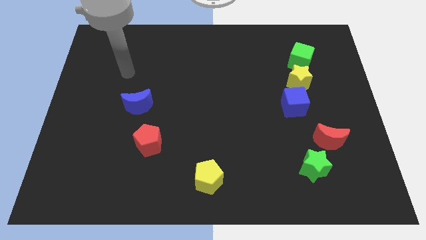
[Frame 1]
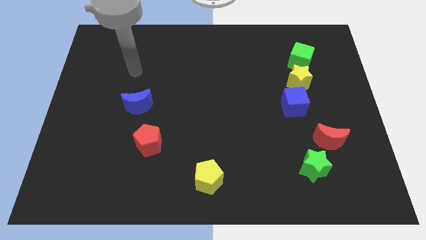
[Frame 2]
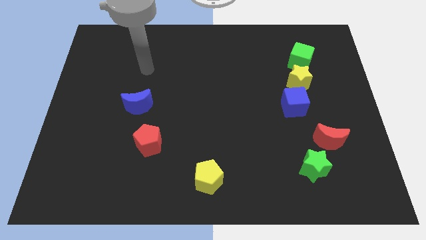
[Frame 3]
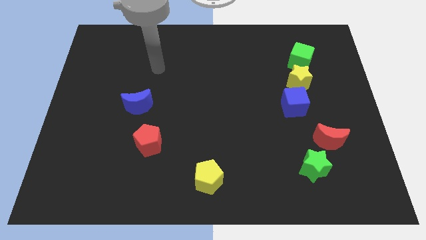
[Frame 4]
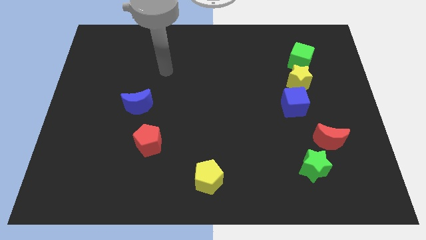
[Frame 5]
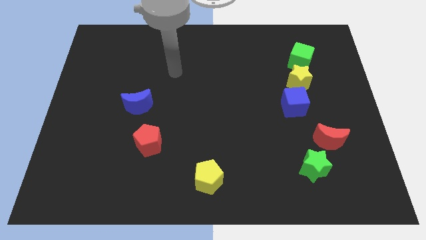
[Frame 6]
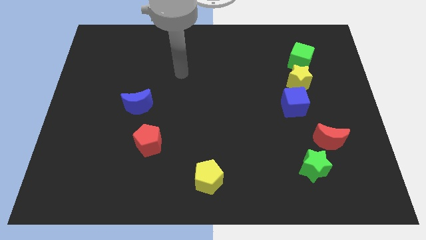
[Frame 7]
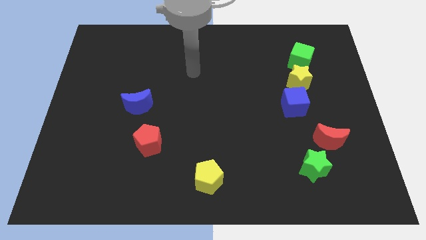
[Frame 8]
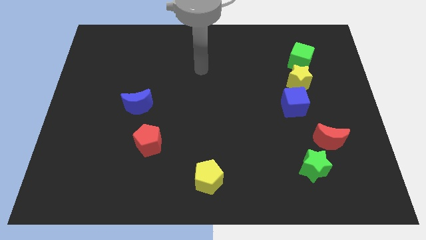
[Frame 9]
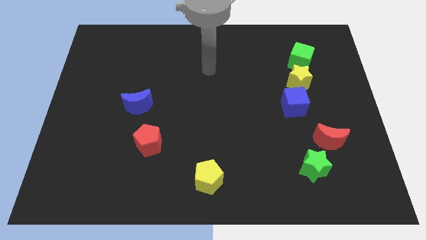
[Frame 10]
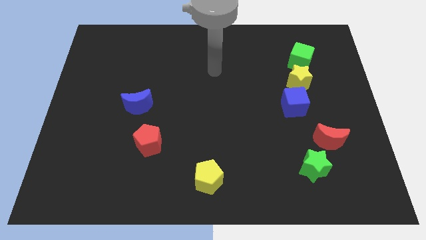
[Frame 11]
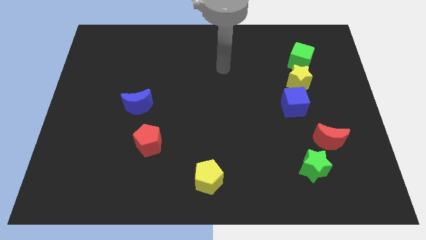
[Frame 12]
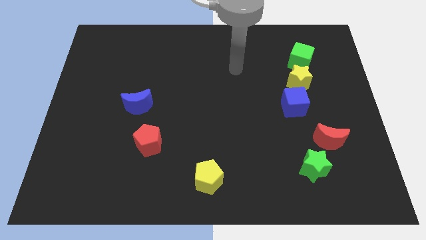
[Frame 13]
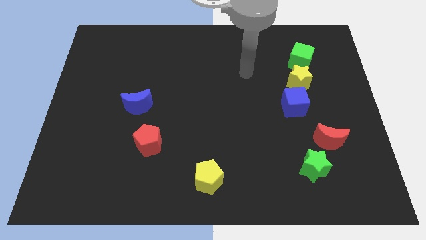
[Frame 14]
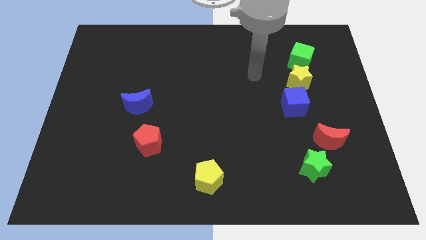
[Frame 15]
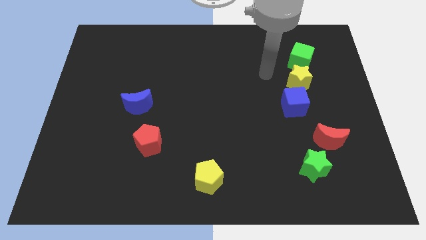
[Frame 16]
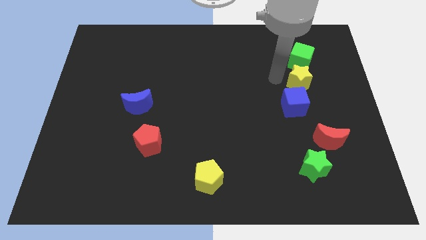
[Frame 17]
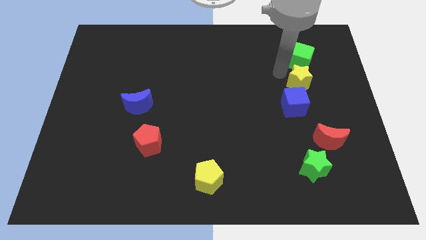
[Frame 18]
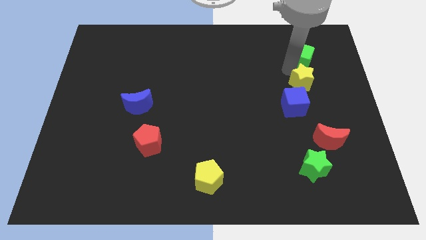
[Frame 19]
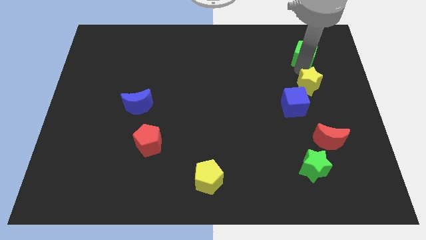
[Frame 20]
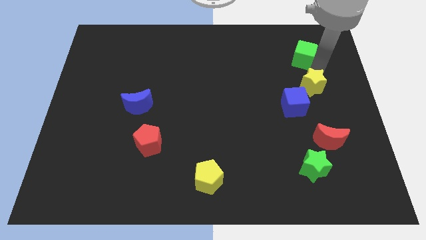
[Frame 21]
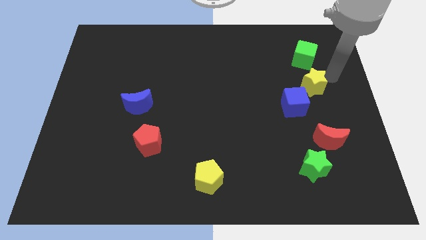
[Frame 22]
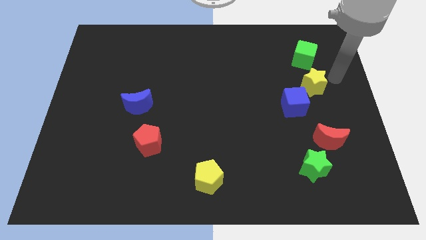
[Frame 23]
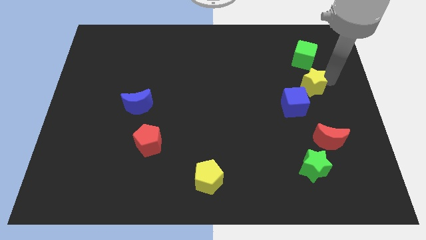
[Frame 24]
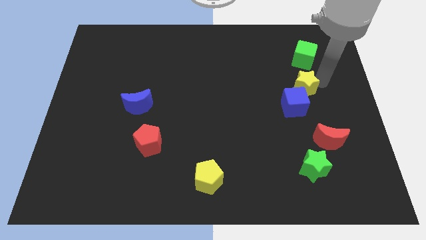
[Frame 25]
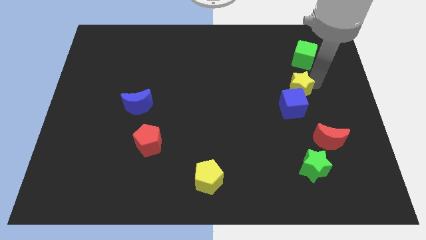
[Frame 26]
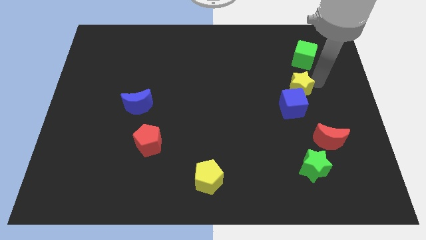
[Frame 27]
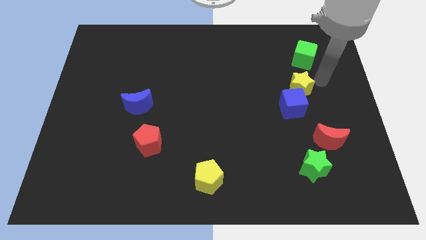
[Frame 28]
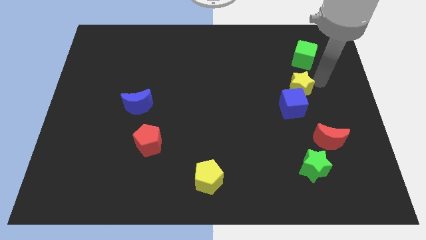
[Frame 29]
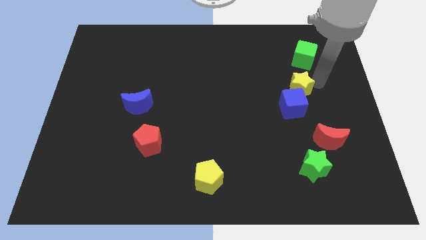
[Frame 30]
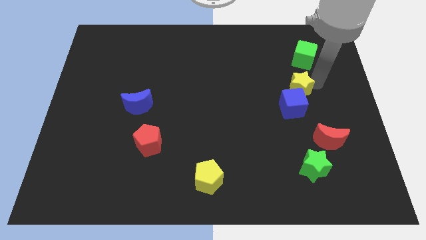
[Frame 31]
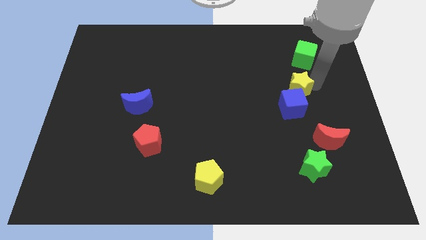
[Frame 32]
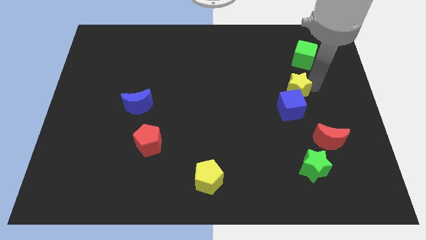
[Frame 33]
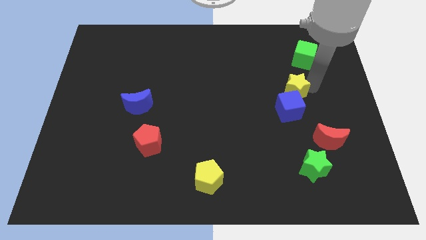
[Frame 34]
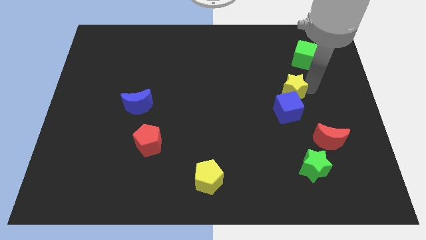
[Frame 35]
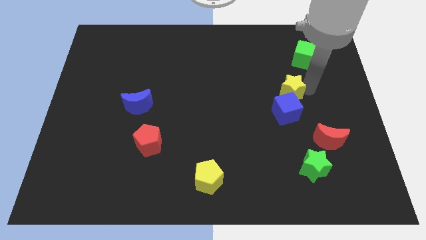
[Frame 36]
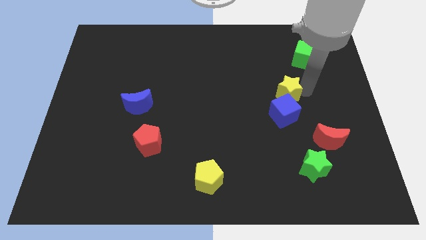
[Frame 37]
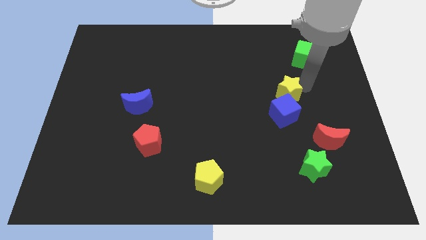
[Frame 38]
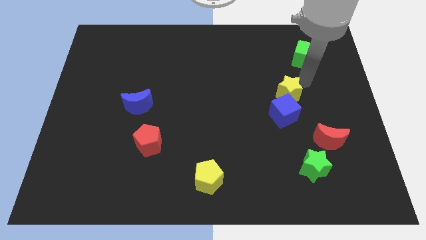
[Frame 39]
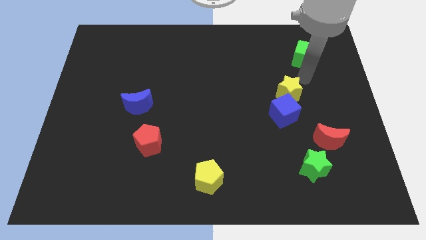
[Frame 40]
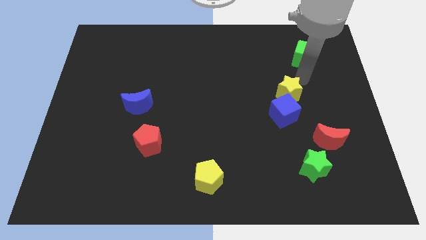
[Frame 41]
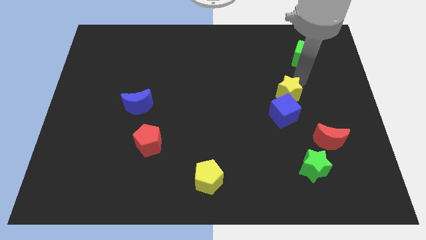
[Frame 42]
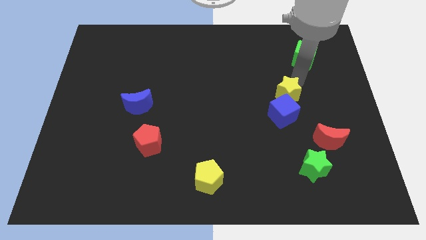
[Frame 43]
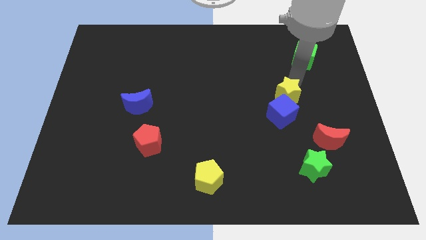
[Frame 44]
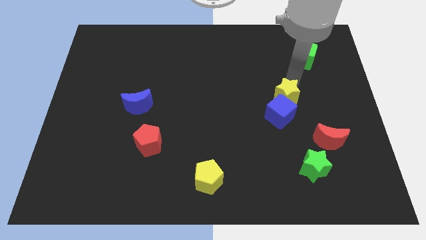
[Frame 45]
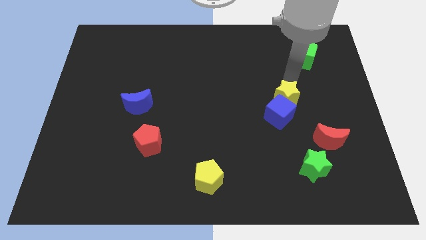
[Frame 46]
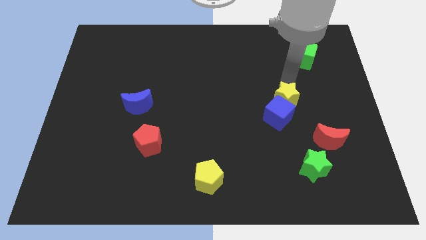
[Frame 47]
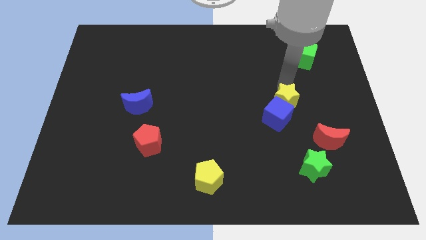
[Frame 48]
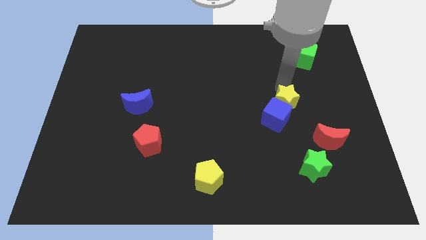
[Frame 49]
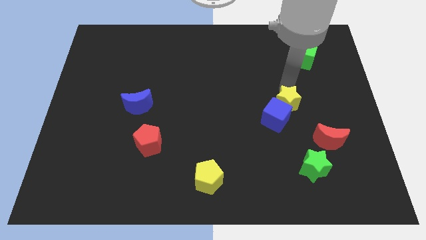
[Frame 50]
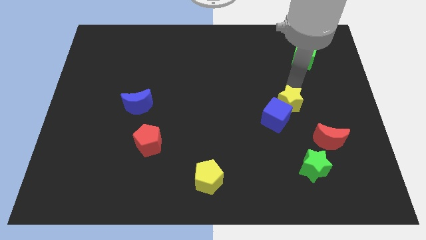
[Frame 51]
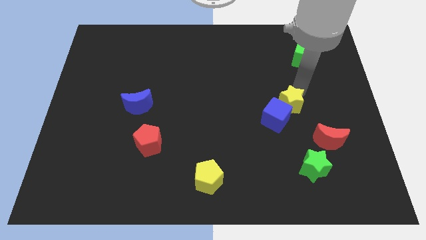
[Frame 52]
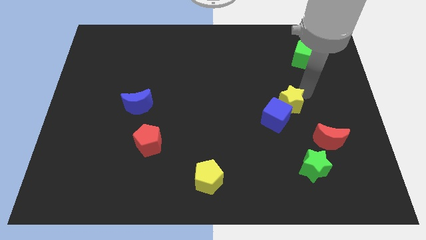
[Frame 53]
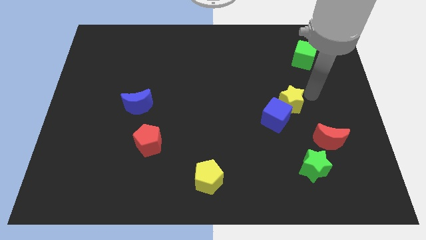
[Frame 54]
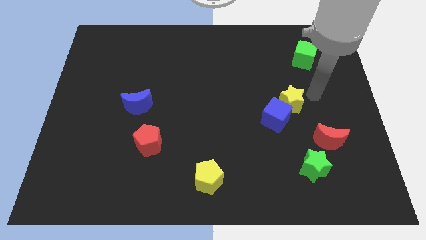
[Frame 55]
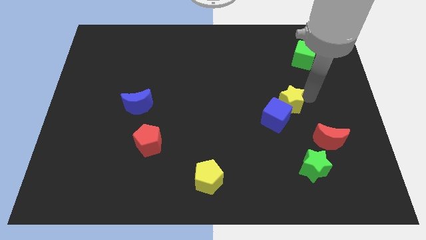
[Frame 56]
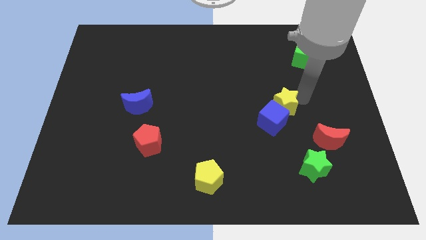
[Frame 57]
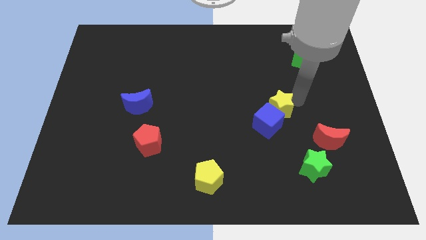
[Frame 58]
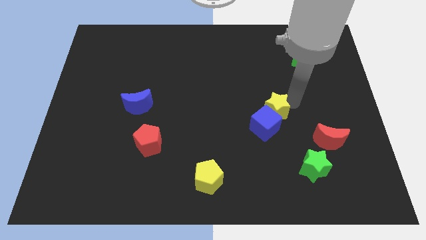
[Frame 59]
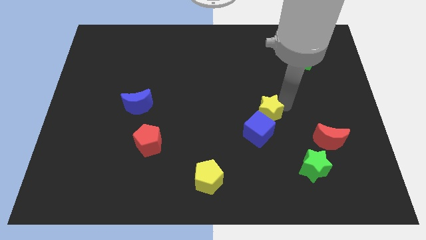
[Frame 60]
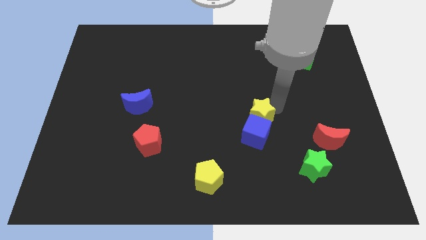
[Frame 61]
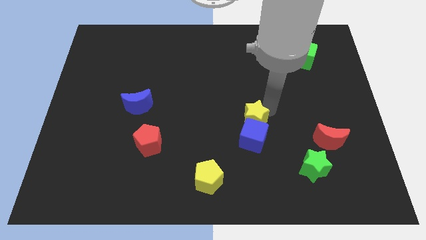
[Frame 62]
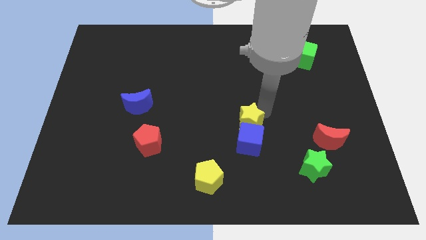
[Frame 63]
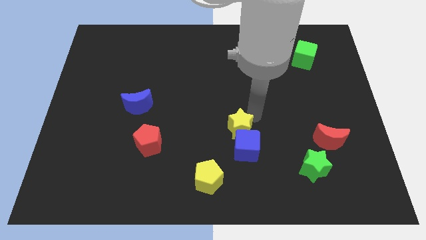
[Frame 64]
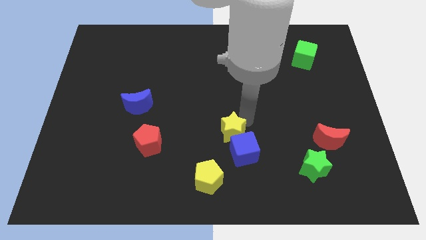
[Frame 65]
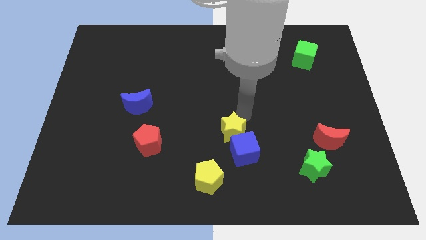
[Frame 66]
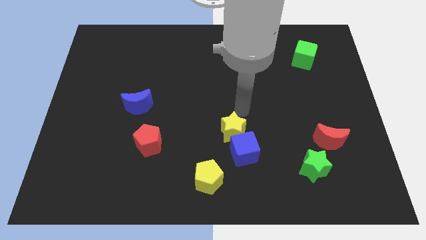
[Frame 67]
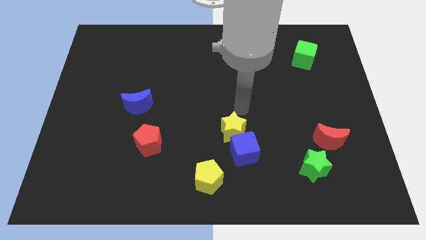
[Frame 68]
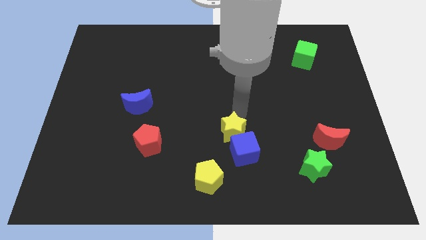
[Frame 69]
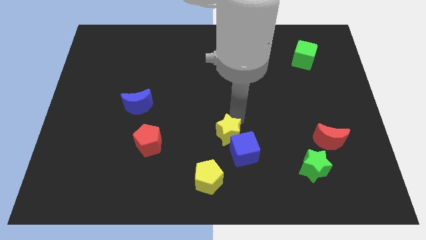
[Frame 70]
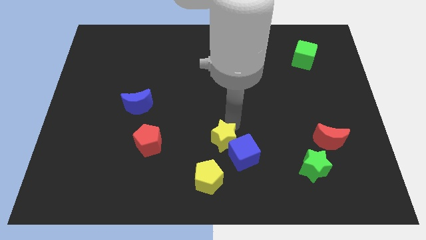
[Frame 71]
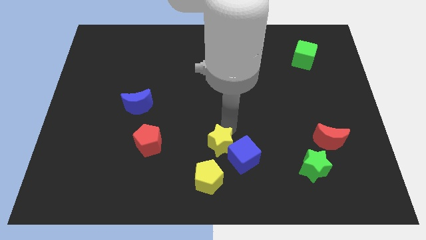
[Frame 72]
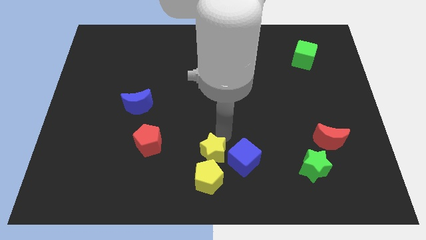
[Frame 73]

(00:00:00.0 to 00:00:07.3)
put the yellow star close to the yellow pentagon

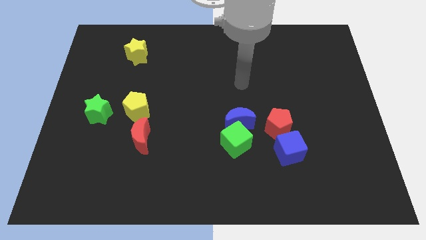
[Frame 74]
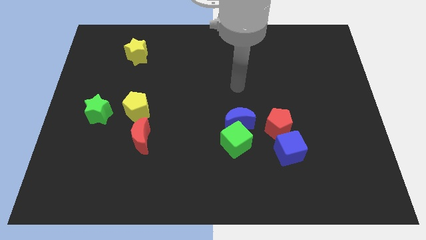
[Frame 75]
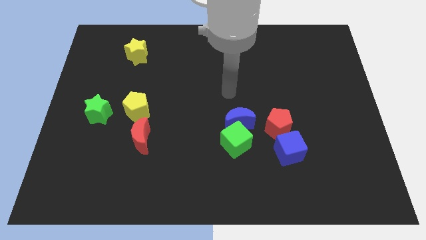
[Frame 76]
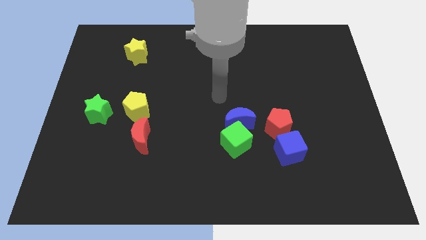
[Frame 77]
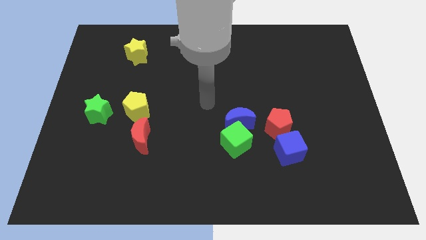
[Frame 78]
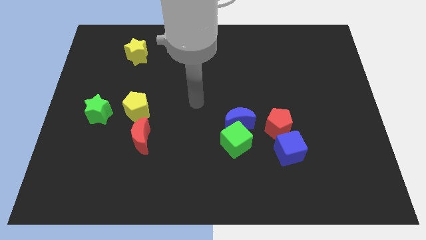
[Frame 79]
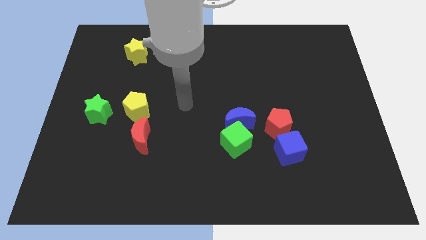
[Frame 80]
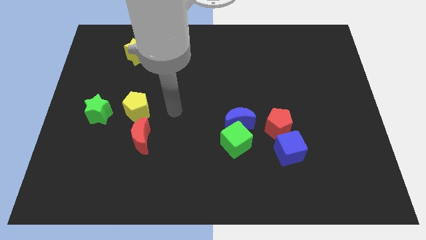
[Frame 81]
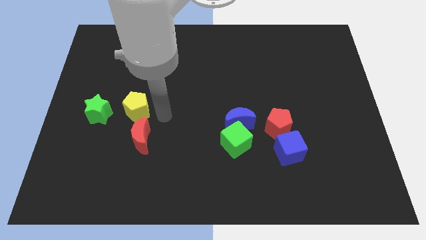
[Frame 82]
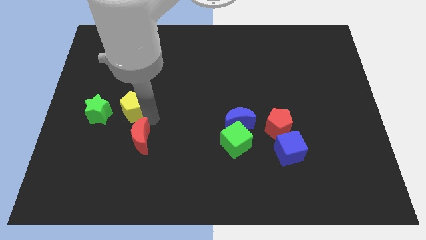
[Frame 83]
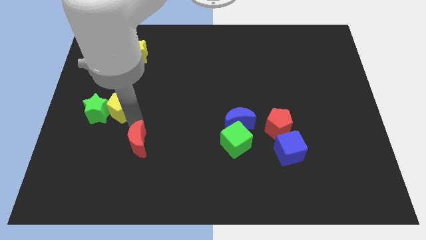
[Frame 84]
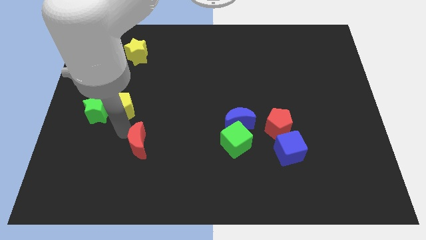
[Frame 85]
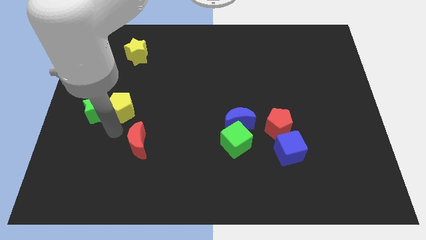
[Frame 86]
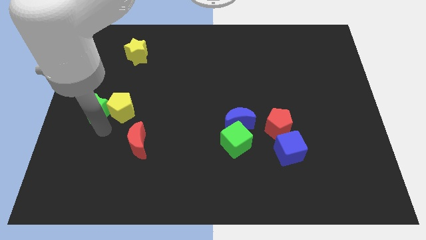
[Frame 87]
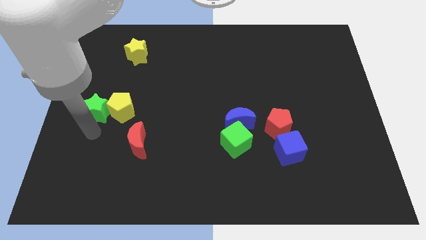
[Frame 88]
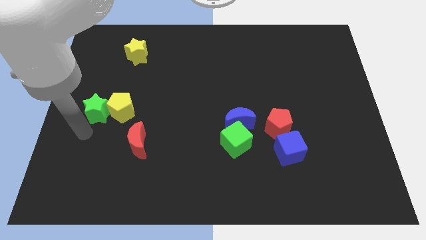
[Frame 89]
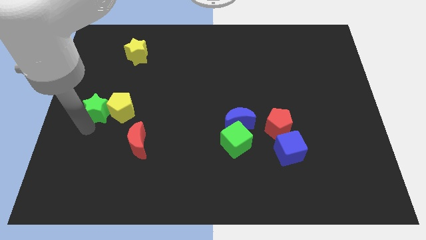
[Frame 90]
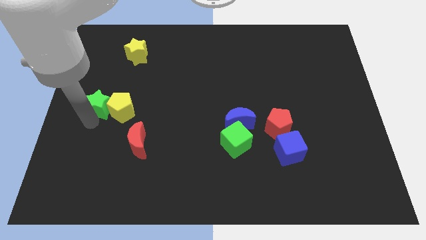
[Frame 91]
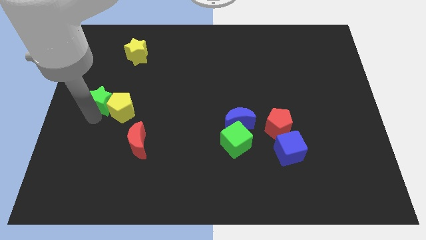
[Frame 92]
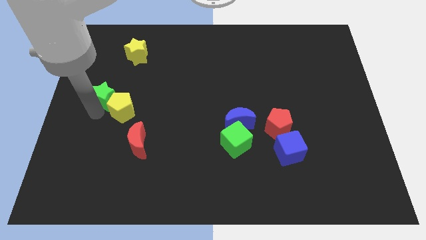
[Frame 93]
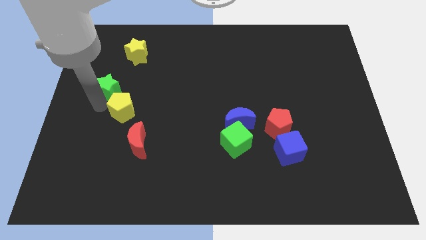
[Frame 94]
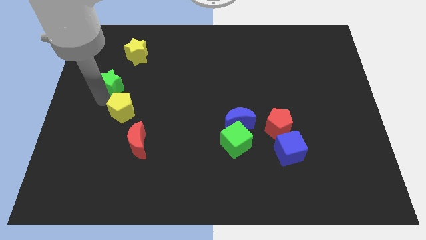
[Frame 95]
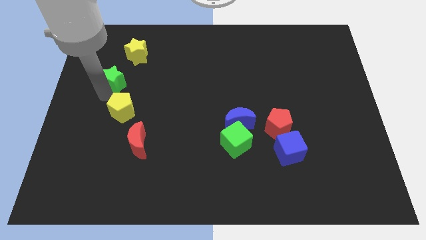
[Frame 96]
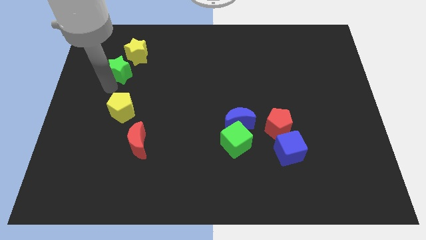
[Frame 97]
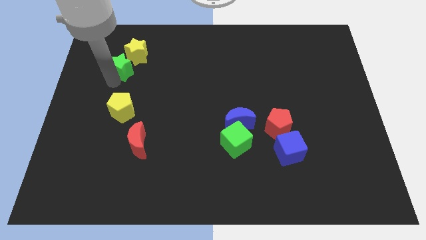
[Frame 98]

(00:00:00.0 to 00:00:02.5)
push the green star next to the yellow star
